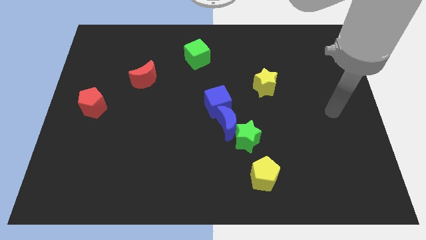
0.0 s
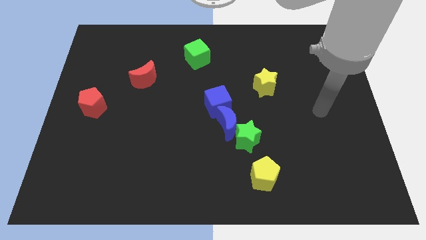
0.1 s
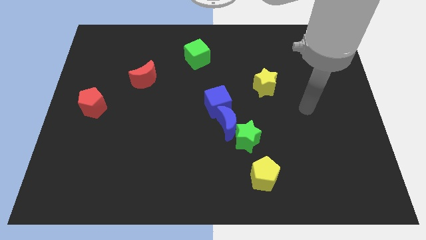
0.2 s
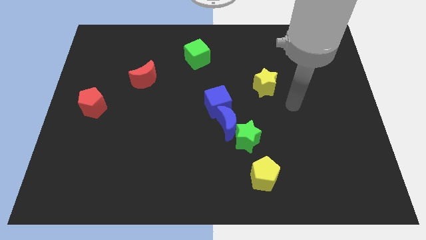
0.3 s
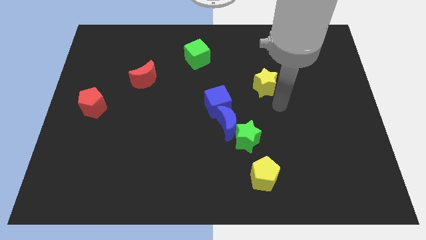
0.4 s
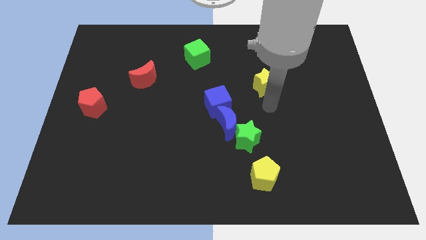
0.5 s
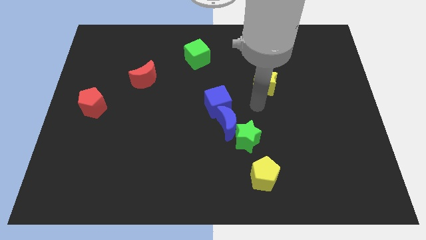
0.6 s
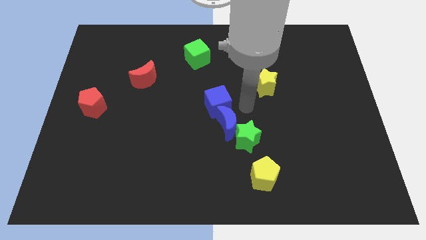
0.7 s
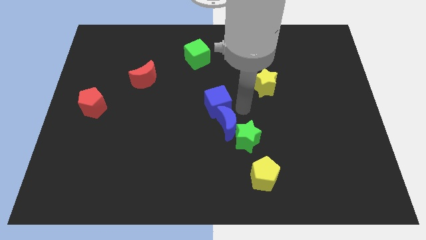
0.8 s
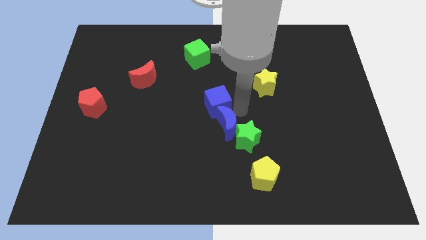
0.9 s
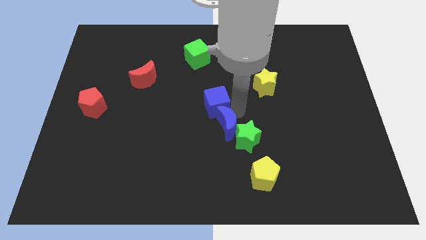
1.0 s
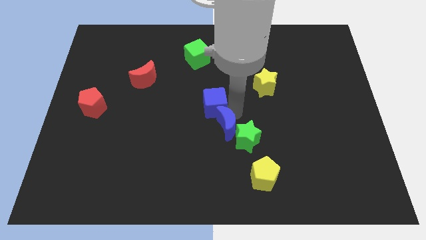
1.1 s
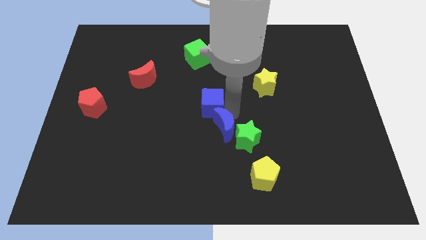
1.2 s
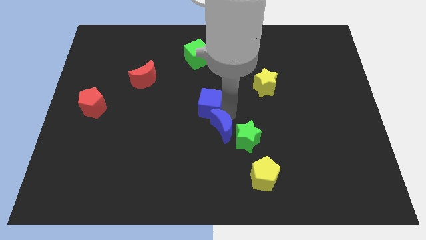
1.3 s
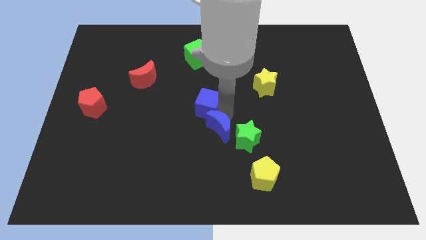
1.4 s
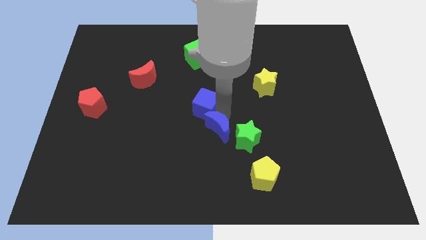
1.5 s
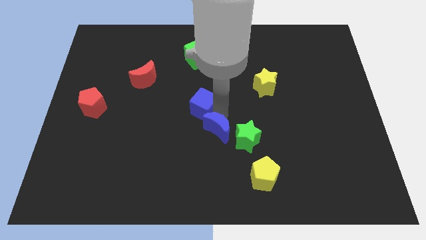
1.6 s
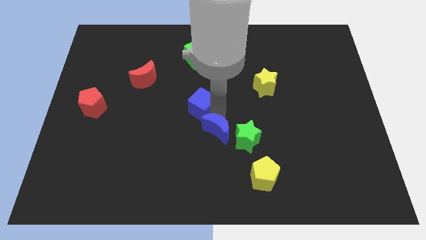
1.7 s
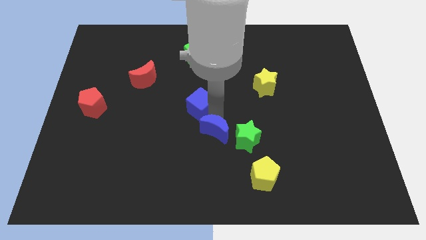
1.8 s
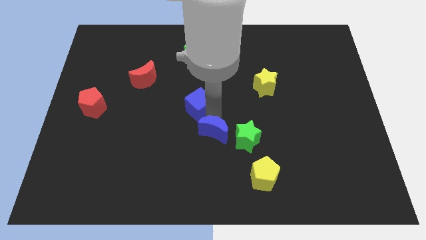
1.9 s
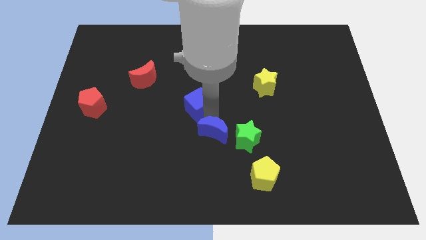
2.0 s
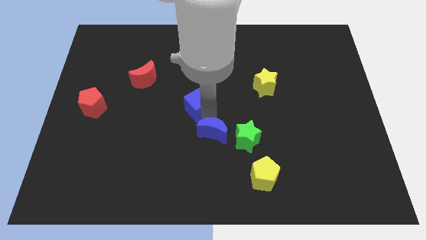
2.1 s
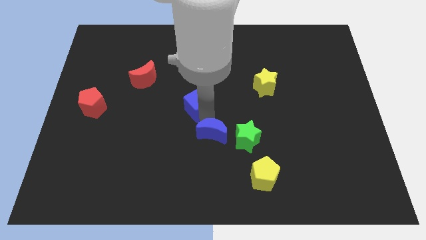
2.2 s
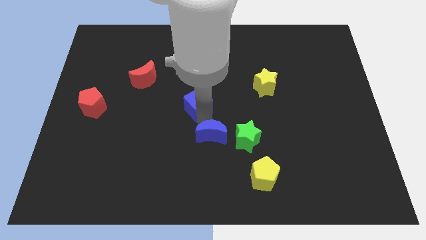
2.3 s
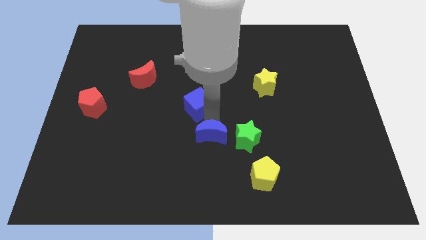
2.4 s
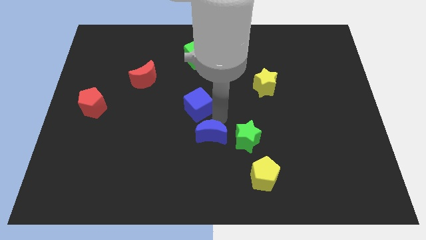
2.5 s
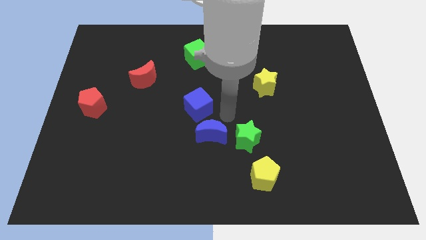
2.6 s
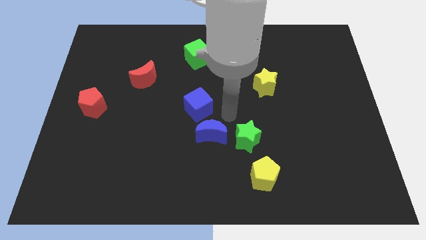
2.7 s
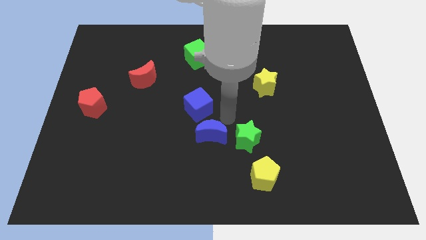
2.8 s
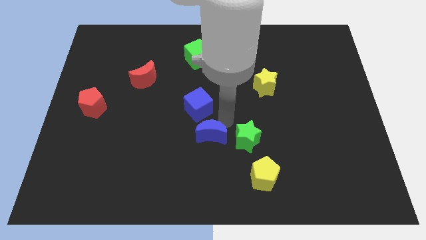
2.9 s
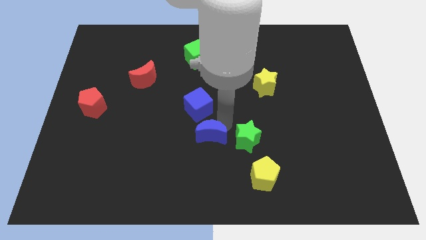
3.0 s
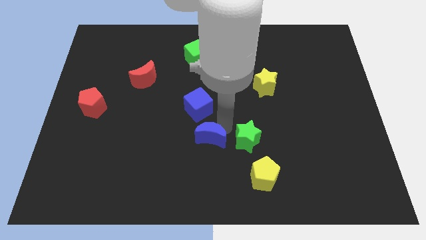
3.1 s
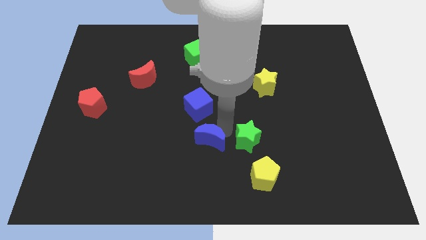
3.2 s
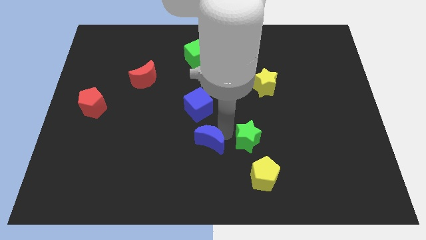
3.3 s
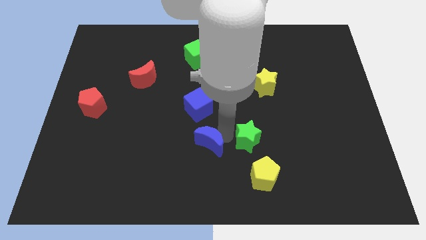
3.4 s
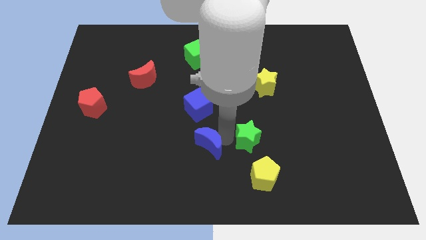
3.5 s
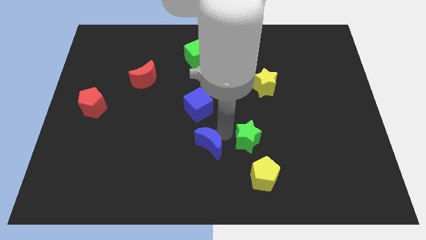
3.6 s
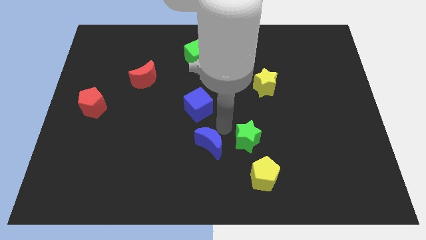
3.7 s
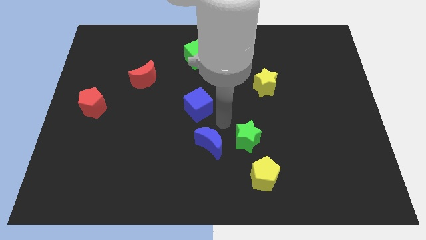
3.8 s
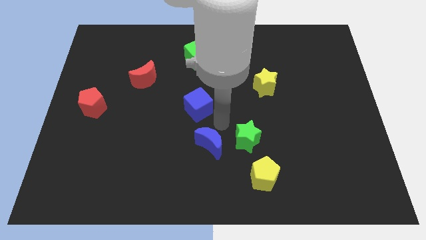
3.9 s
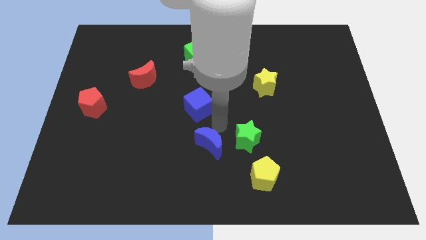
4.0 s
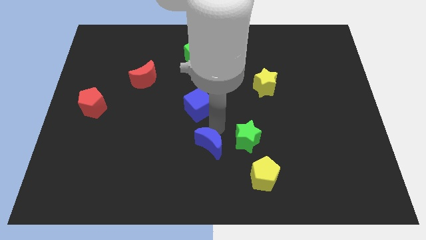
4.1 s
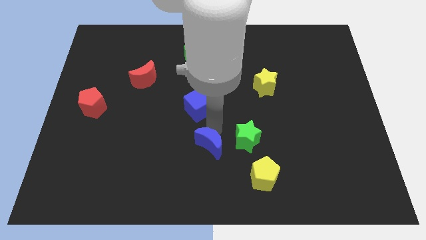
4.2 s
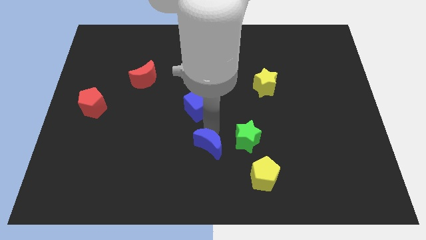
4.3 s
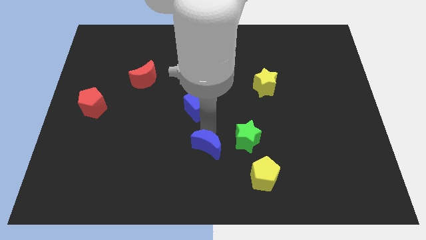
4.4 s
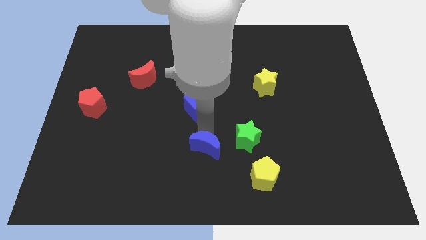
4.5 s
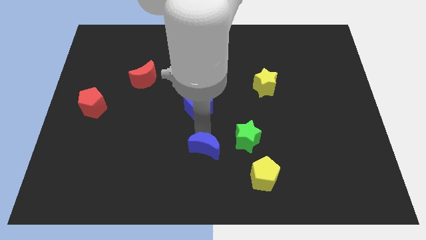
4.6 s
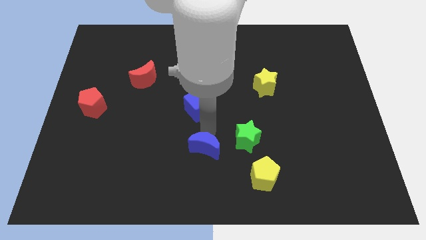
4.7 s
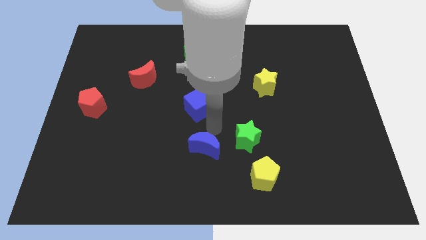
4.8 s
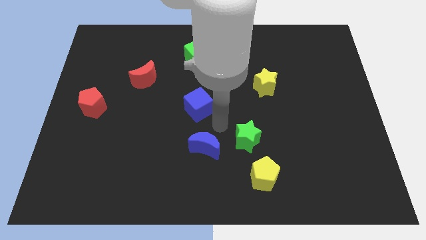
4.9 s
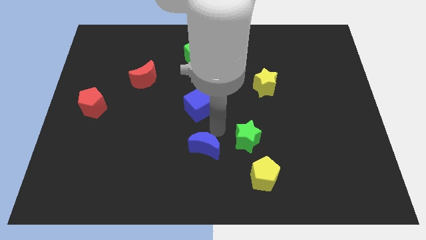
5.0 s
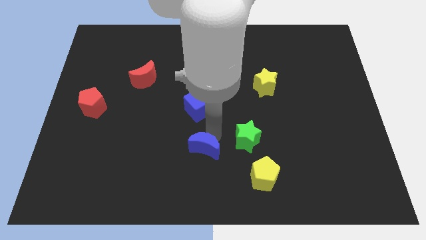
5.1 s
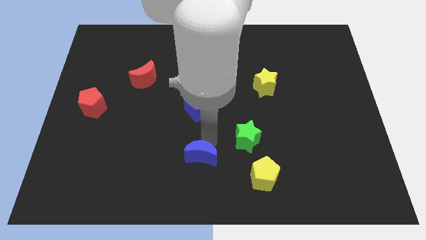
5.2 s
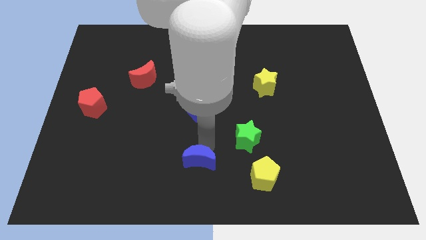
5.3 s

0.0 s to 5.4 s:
pull the blue moon apart from the green star and blue cube

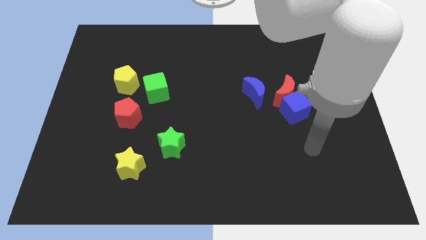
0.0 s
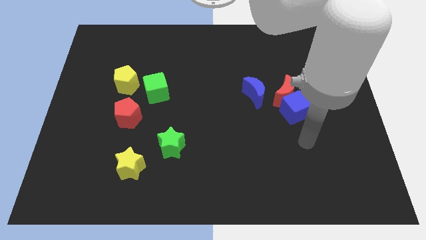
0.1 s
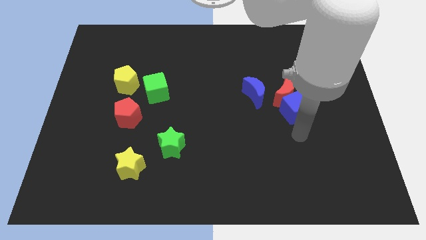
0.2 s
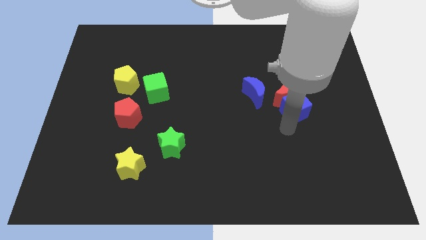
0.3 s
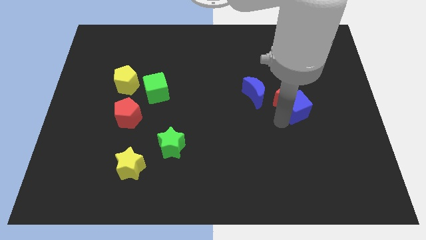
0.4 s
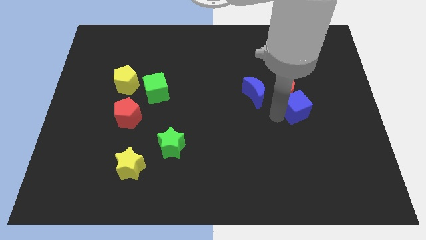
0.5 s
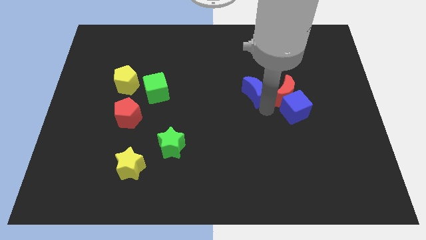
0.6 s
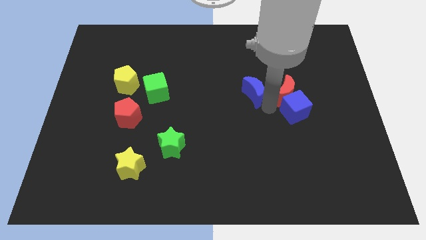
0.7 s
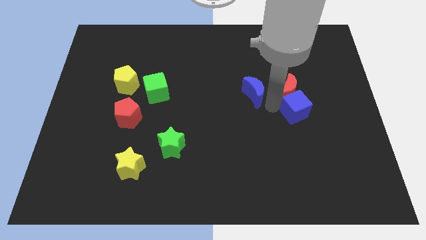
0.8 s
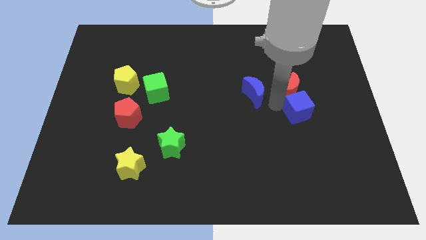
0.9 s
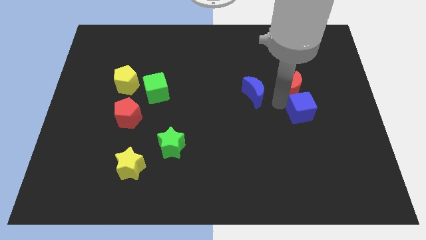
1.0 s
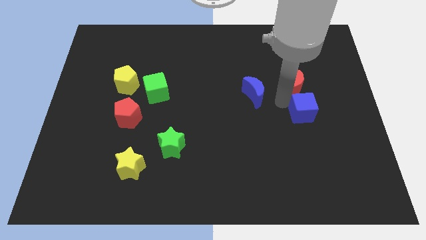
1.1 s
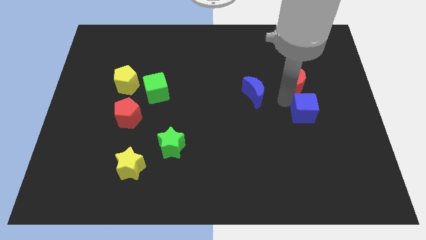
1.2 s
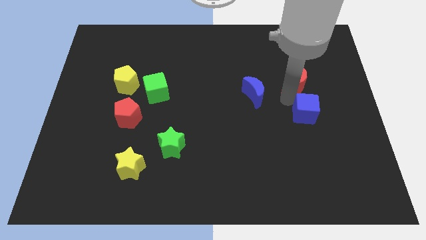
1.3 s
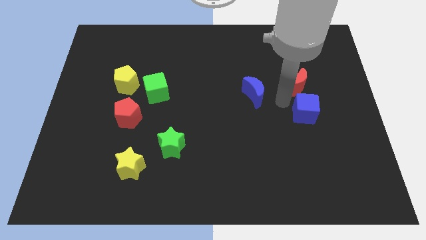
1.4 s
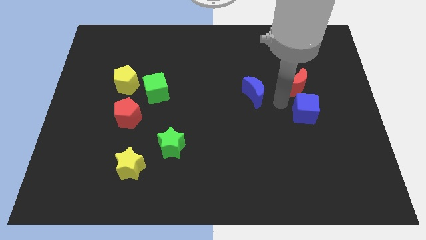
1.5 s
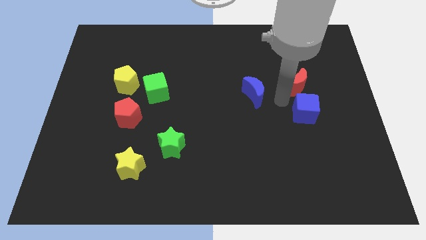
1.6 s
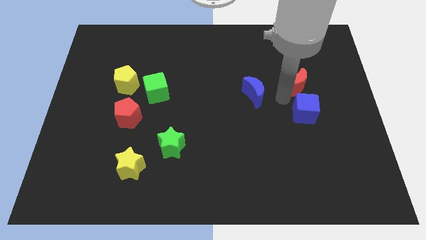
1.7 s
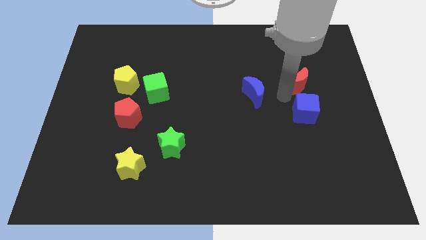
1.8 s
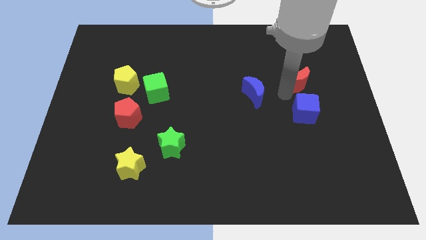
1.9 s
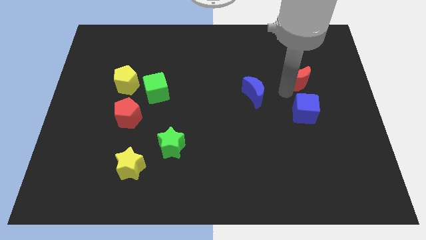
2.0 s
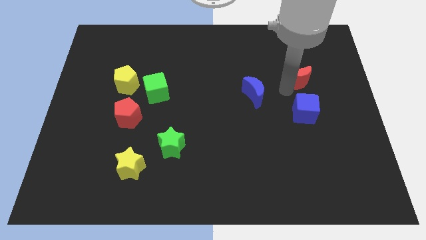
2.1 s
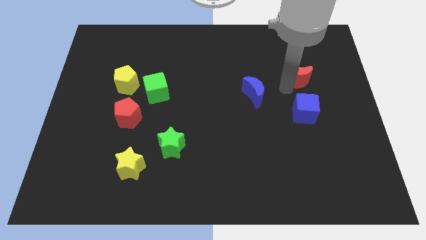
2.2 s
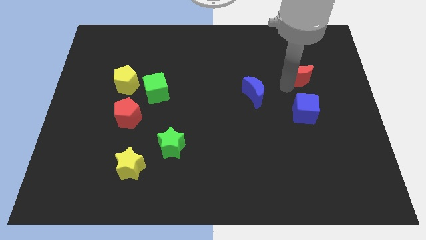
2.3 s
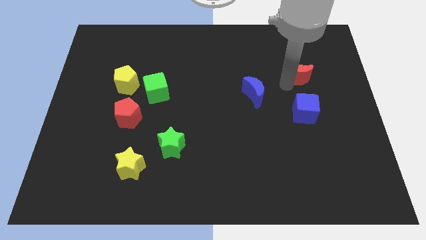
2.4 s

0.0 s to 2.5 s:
separate the red moon from the blue cube and blue moon

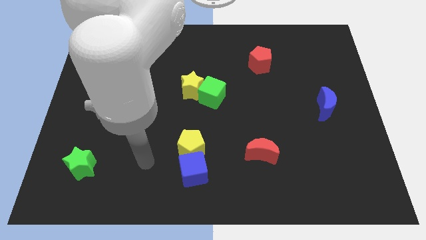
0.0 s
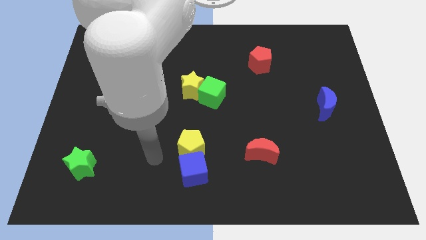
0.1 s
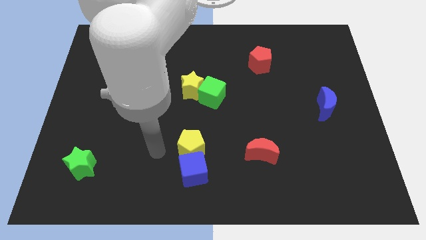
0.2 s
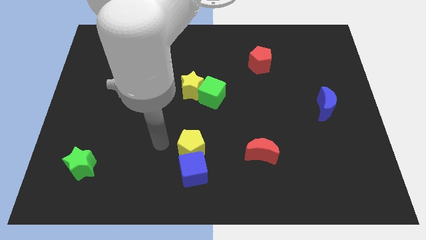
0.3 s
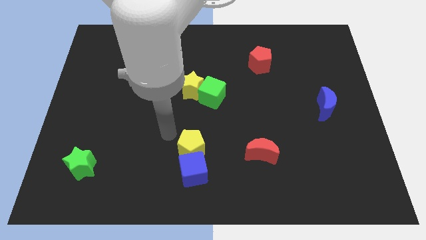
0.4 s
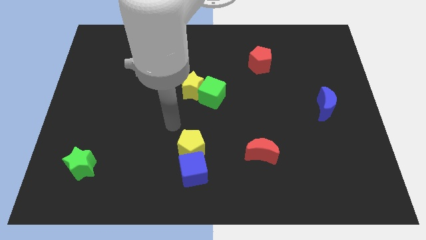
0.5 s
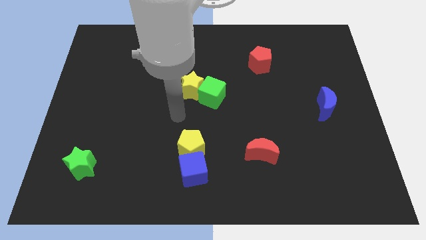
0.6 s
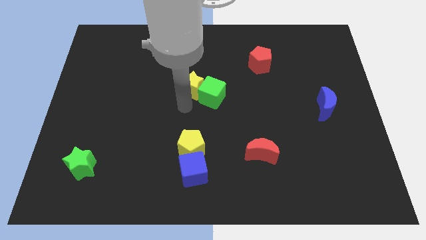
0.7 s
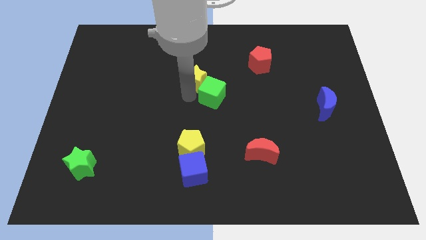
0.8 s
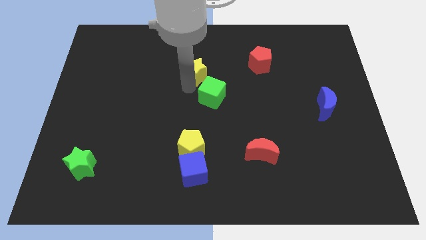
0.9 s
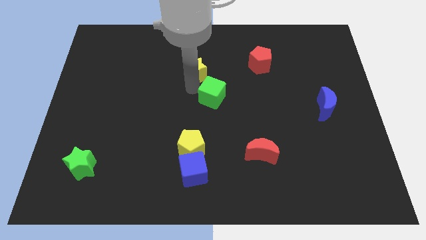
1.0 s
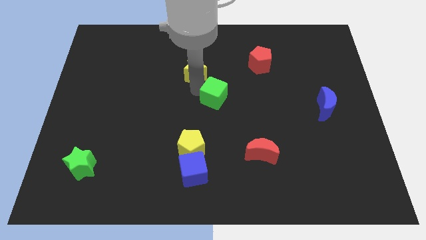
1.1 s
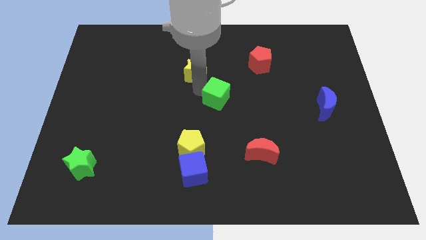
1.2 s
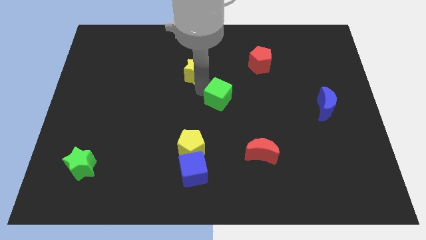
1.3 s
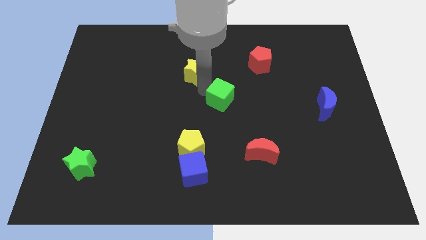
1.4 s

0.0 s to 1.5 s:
pull the green cube apart from the yellow star
